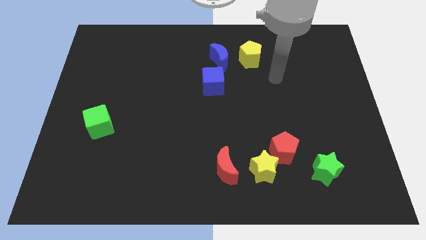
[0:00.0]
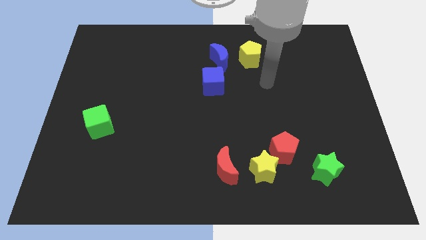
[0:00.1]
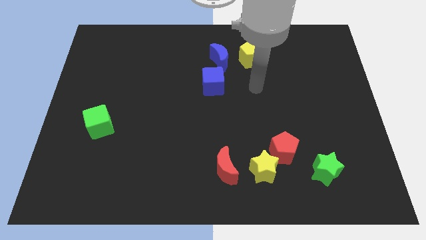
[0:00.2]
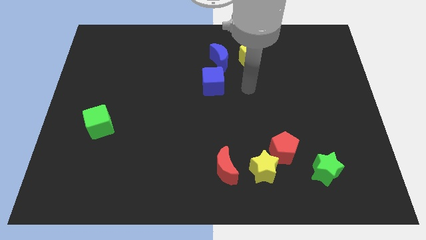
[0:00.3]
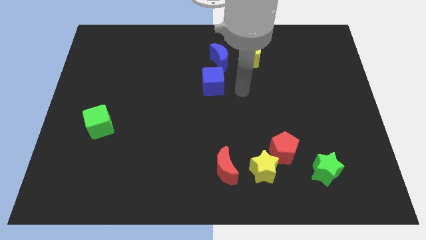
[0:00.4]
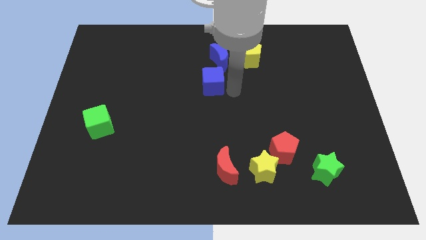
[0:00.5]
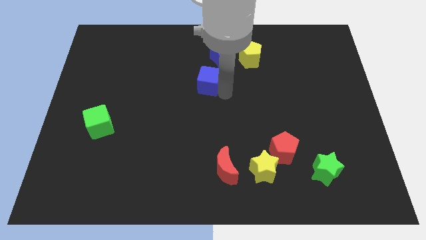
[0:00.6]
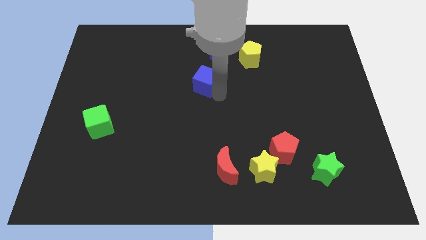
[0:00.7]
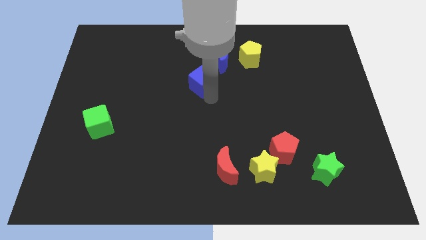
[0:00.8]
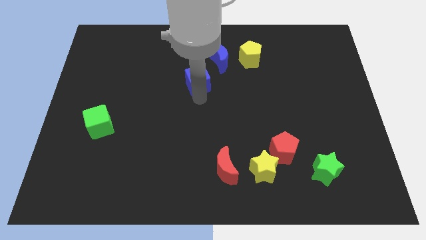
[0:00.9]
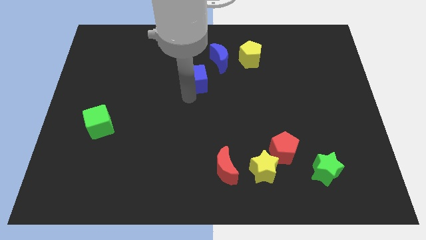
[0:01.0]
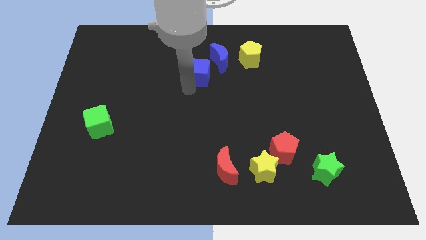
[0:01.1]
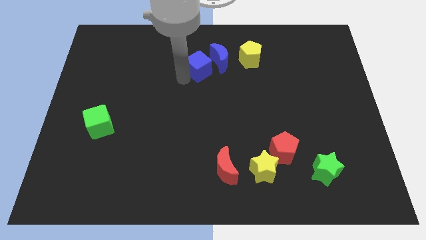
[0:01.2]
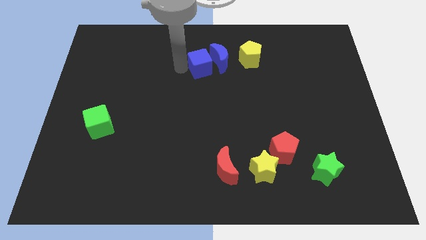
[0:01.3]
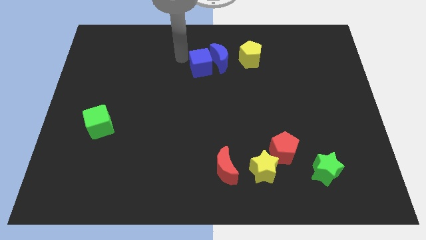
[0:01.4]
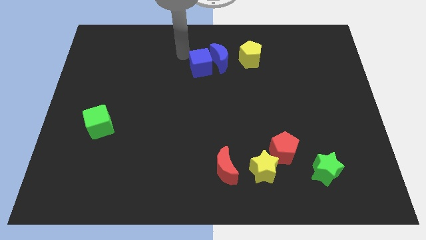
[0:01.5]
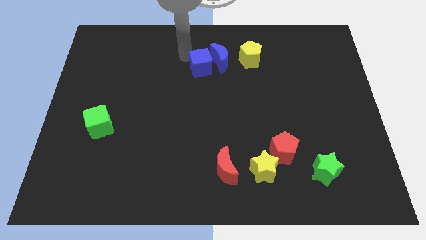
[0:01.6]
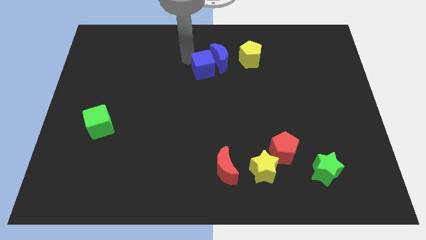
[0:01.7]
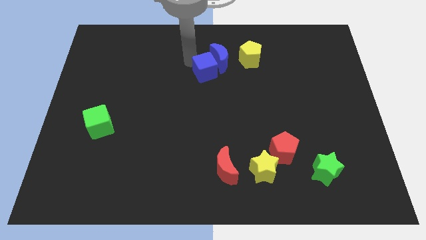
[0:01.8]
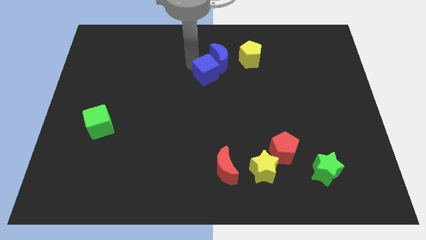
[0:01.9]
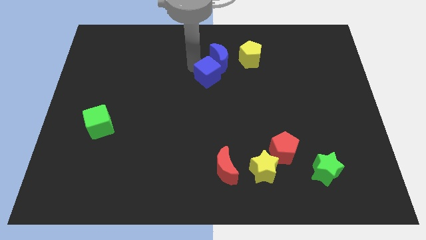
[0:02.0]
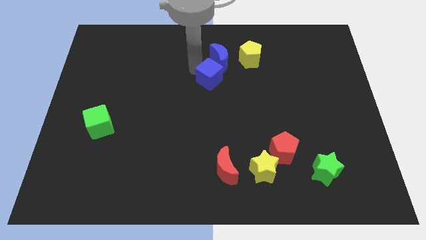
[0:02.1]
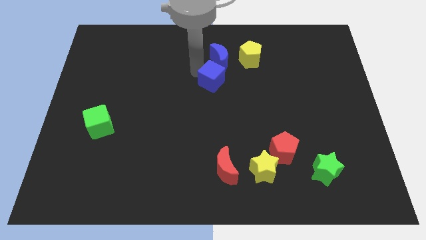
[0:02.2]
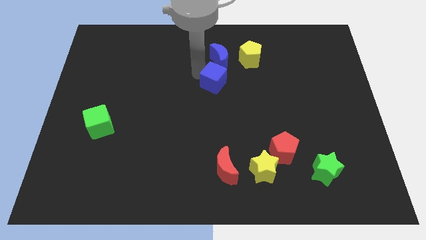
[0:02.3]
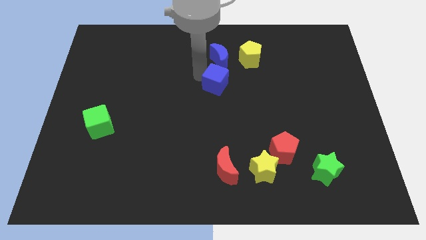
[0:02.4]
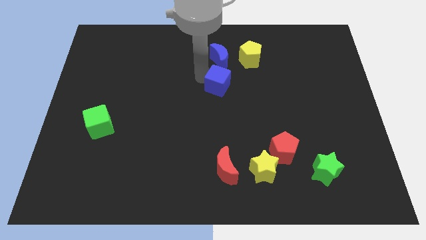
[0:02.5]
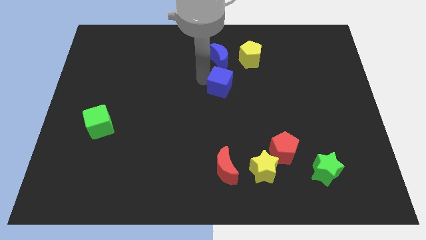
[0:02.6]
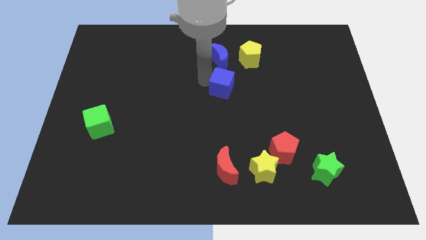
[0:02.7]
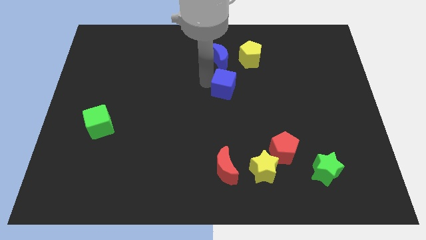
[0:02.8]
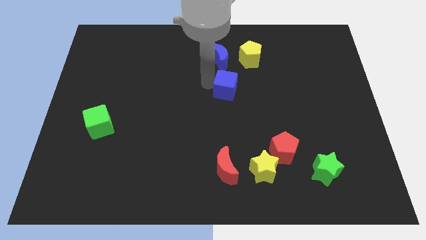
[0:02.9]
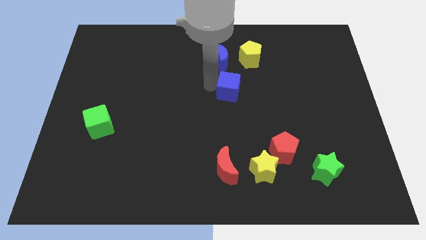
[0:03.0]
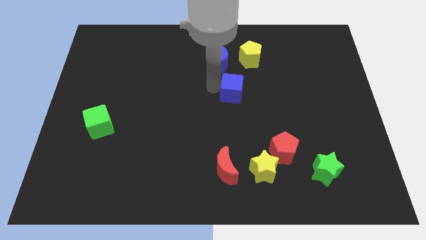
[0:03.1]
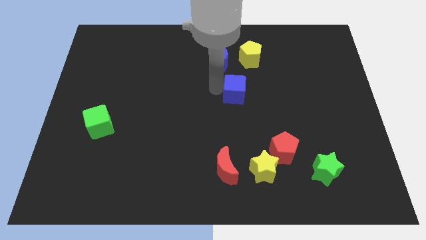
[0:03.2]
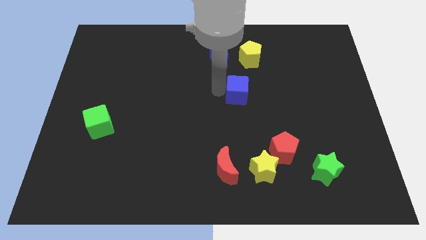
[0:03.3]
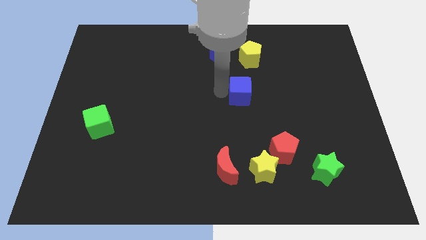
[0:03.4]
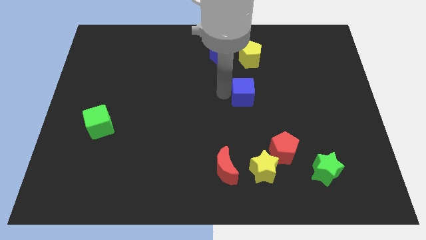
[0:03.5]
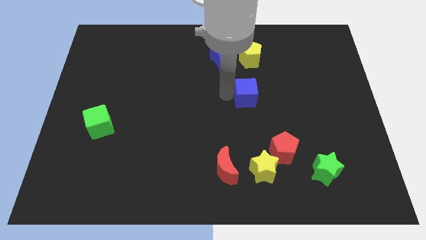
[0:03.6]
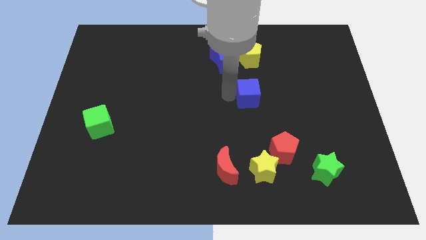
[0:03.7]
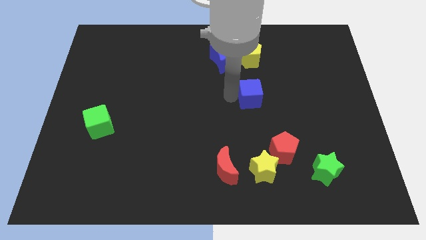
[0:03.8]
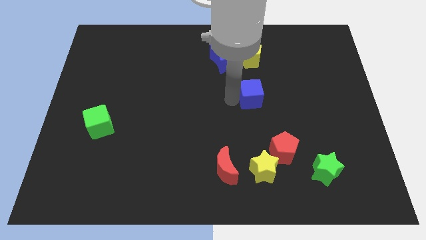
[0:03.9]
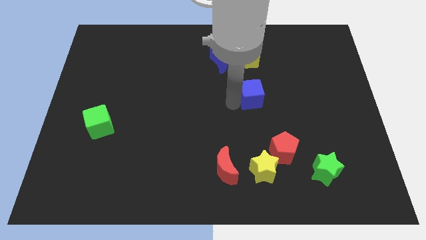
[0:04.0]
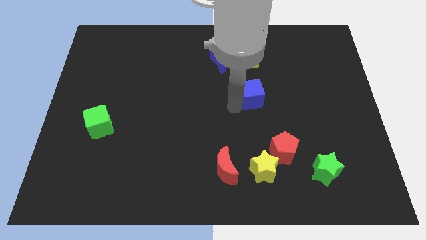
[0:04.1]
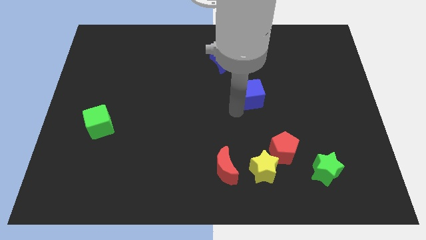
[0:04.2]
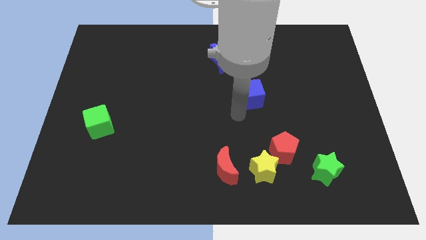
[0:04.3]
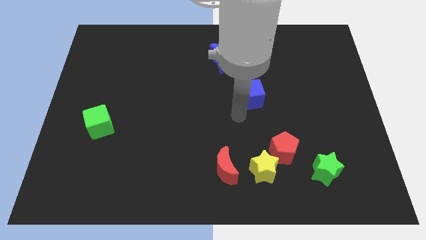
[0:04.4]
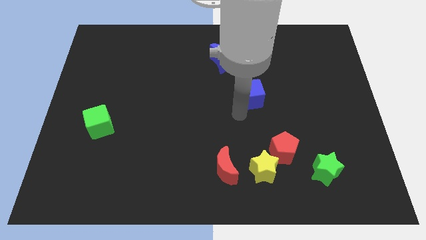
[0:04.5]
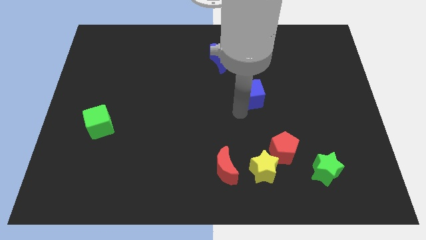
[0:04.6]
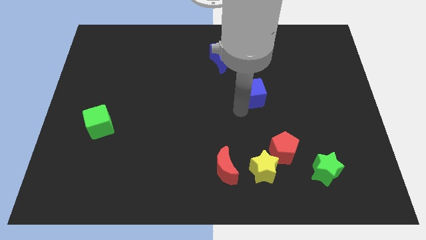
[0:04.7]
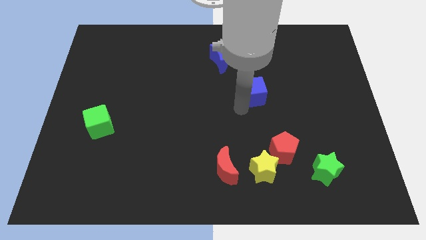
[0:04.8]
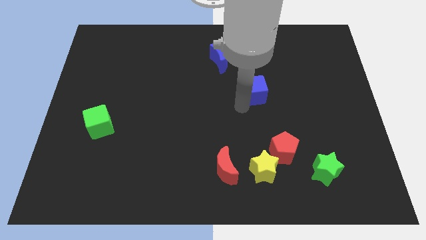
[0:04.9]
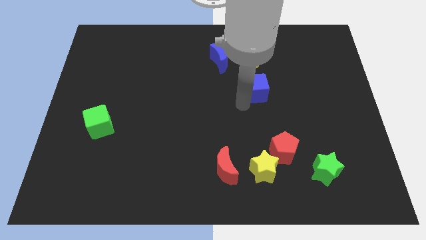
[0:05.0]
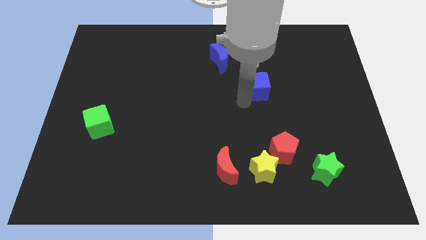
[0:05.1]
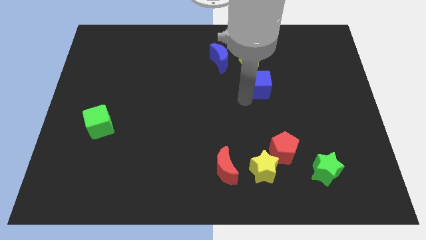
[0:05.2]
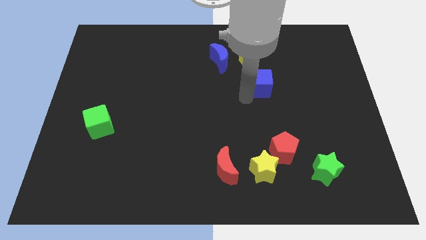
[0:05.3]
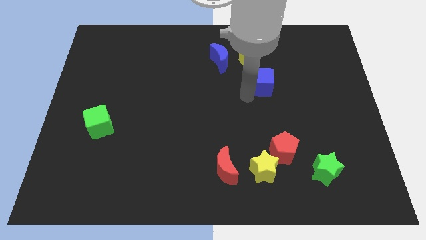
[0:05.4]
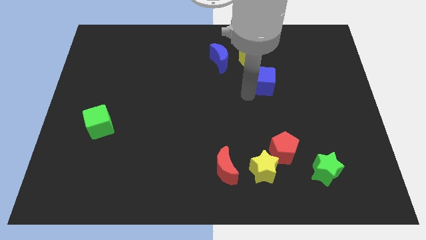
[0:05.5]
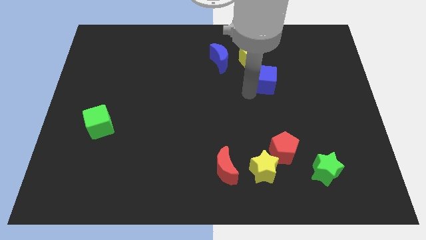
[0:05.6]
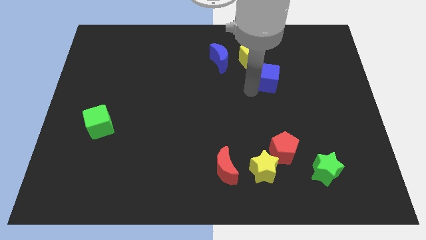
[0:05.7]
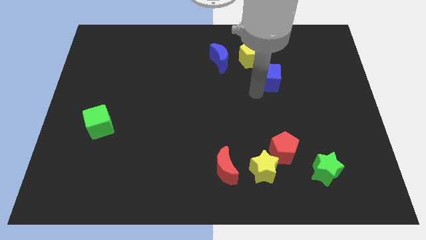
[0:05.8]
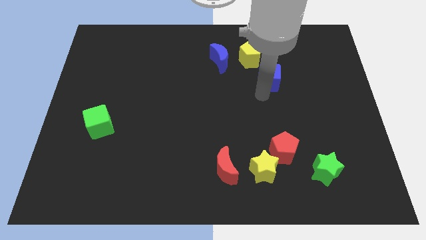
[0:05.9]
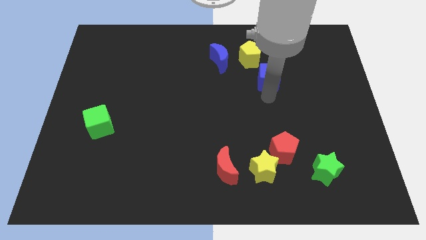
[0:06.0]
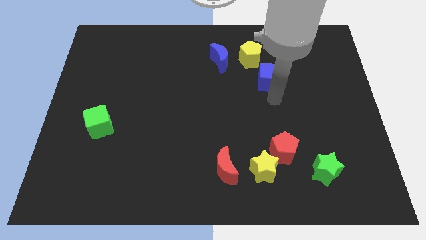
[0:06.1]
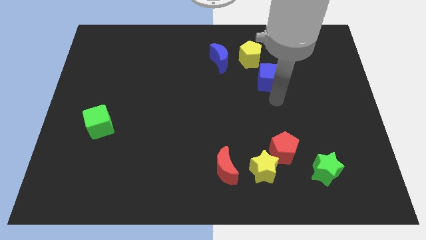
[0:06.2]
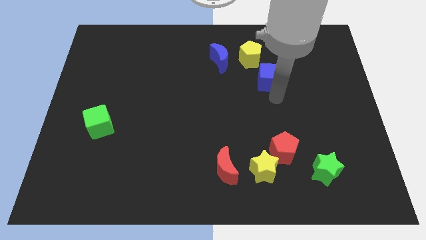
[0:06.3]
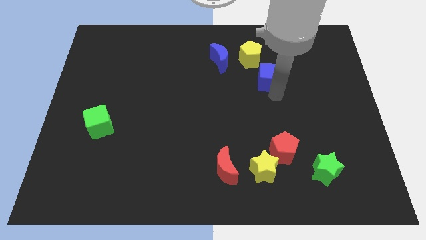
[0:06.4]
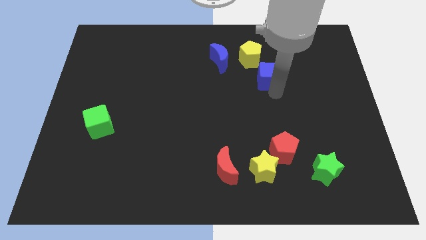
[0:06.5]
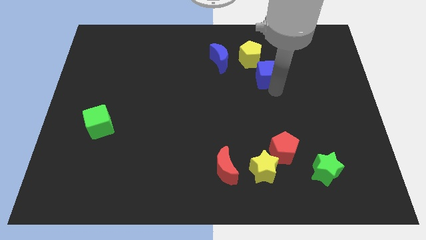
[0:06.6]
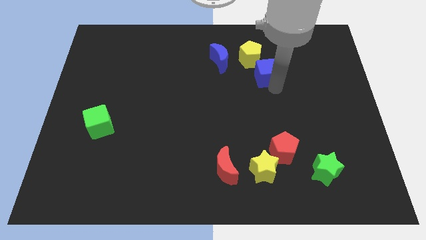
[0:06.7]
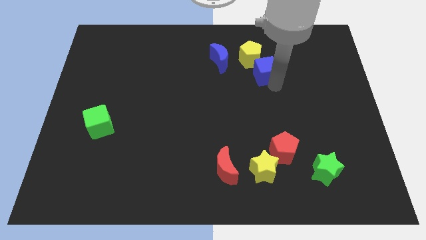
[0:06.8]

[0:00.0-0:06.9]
push the blue cube right of the blue moon

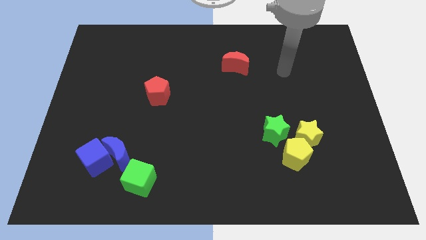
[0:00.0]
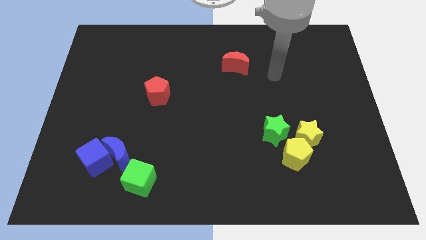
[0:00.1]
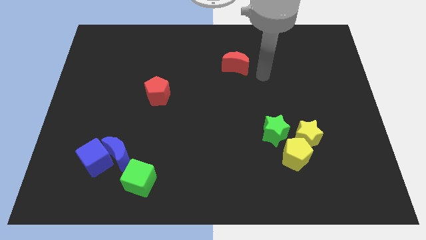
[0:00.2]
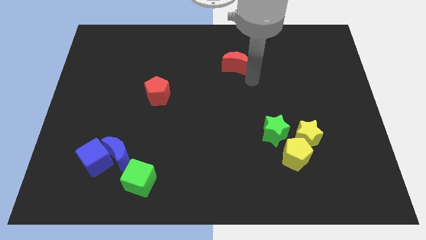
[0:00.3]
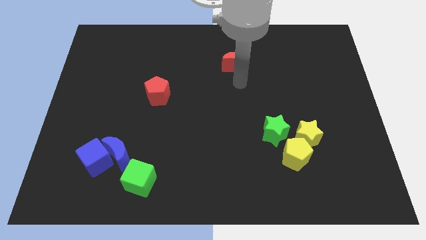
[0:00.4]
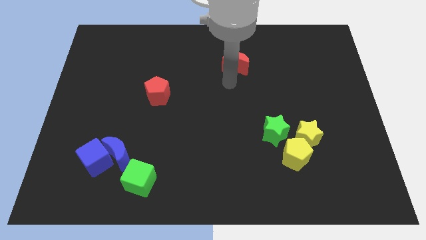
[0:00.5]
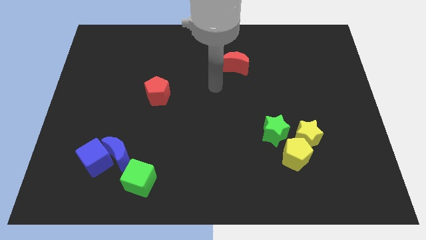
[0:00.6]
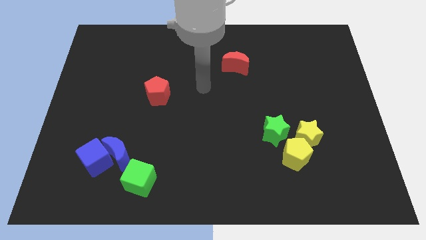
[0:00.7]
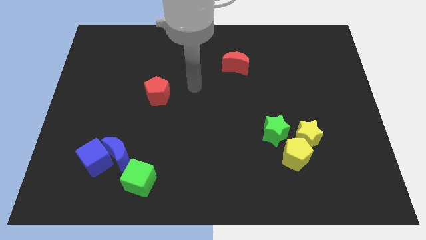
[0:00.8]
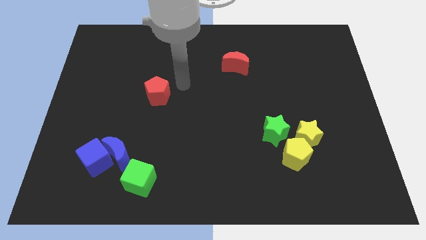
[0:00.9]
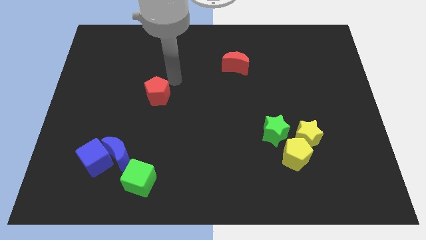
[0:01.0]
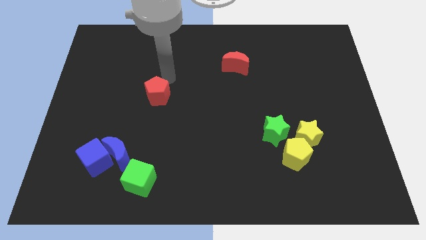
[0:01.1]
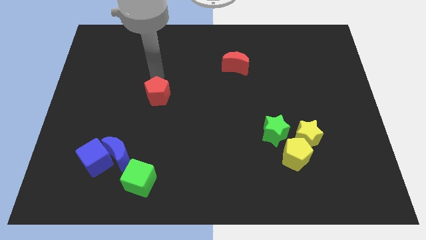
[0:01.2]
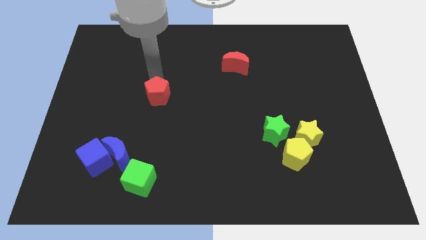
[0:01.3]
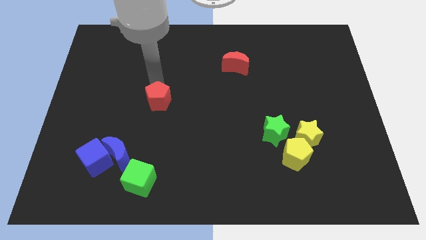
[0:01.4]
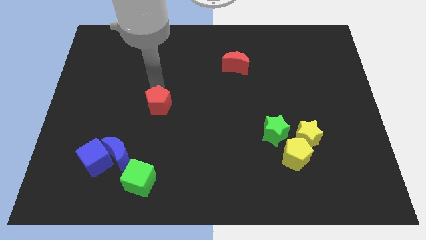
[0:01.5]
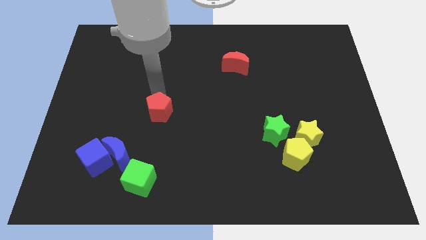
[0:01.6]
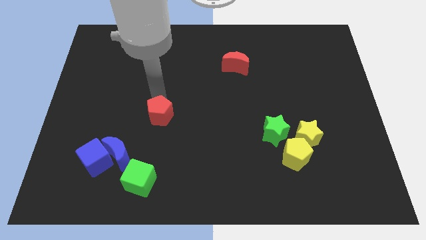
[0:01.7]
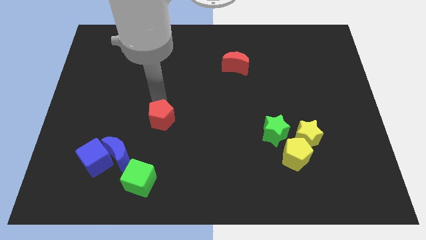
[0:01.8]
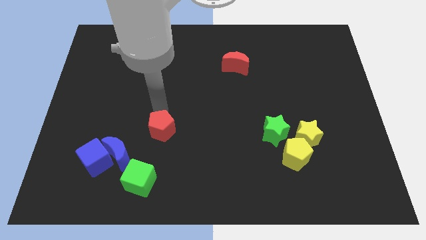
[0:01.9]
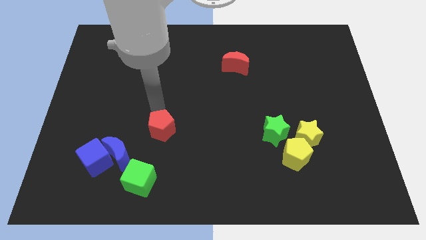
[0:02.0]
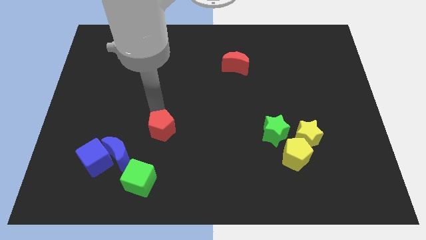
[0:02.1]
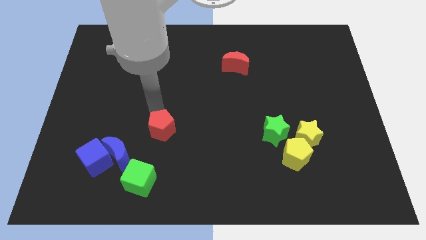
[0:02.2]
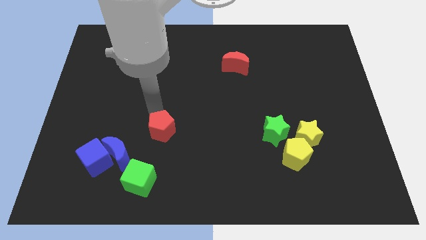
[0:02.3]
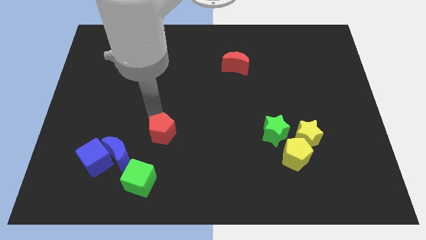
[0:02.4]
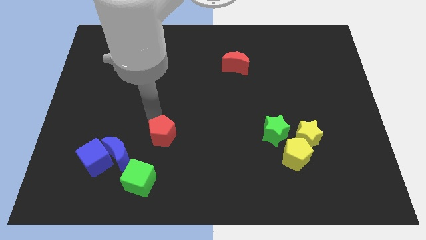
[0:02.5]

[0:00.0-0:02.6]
put the red pentagon to the right of the blue moon
